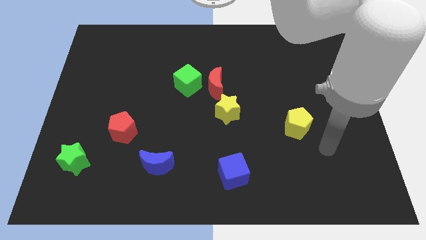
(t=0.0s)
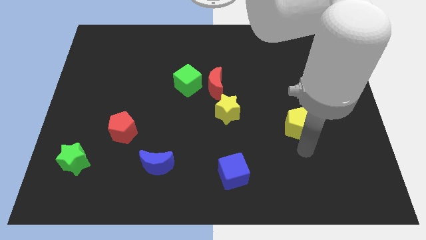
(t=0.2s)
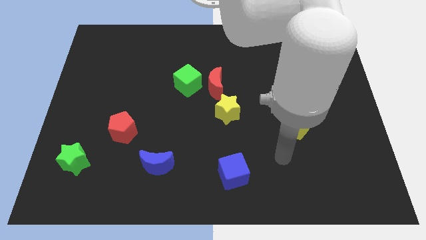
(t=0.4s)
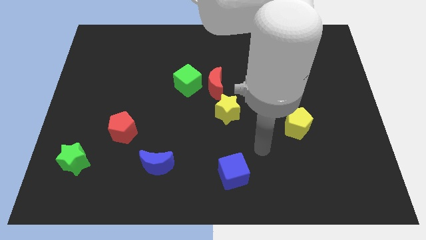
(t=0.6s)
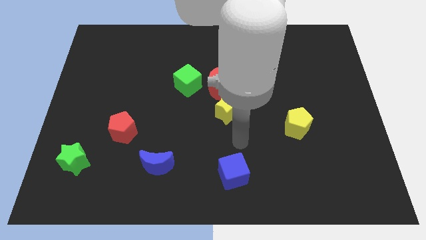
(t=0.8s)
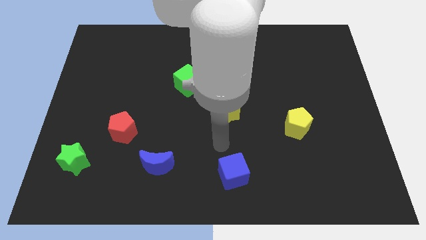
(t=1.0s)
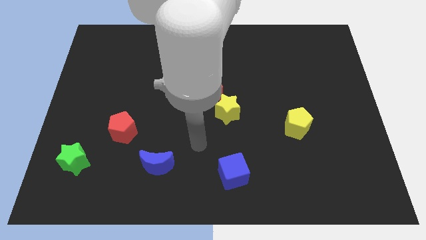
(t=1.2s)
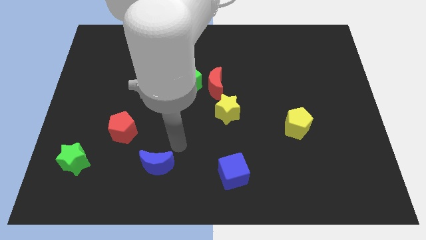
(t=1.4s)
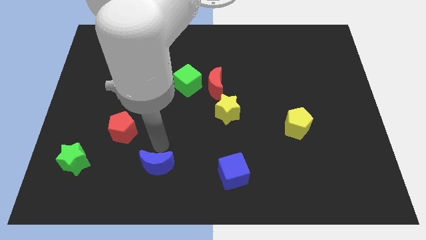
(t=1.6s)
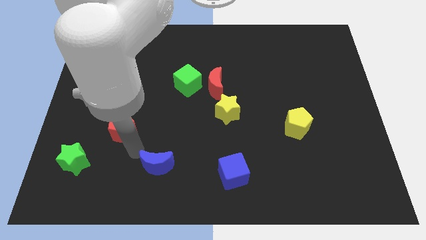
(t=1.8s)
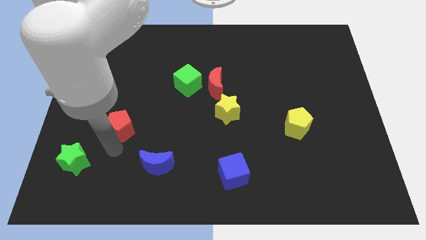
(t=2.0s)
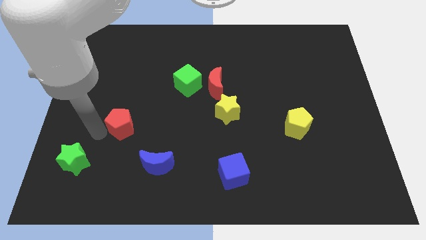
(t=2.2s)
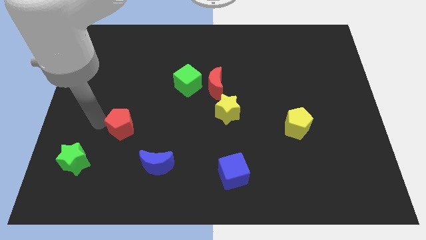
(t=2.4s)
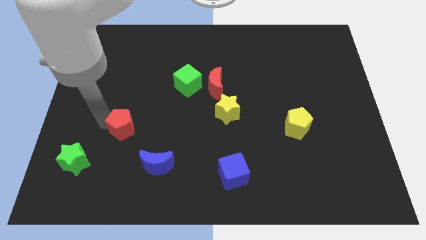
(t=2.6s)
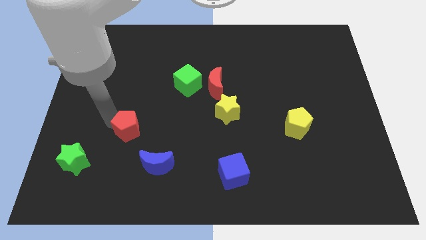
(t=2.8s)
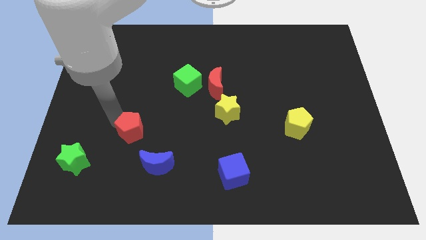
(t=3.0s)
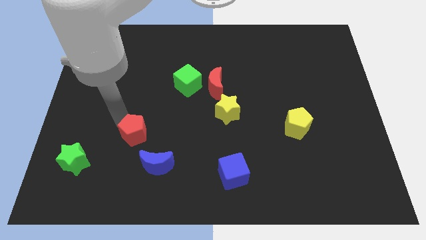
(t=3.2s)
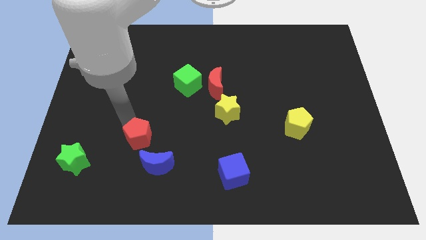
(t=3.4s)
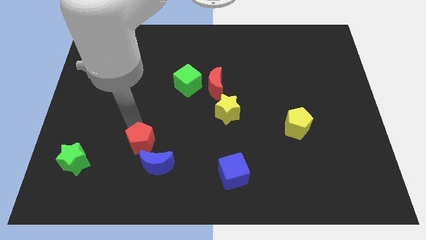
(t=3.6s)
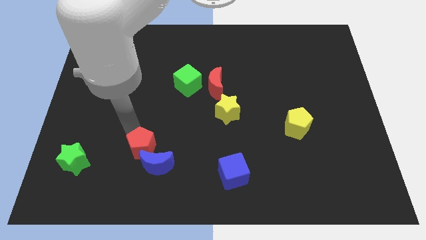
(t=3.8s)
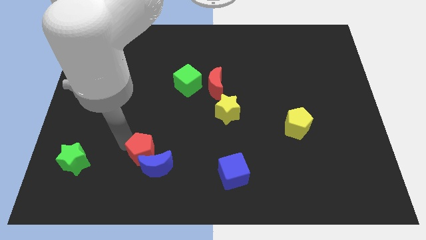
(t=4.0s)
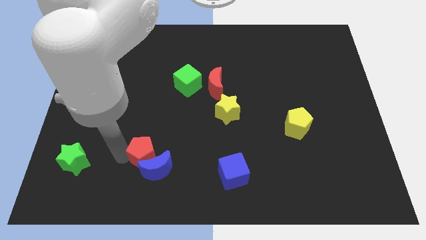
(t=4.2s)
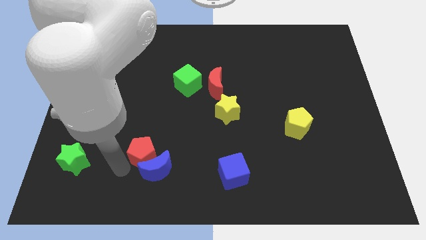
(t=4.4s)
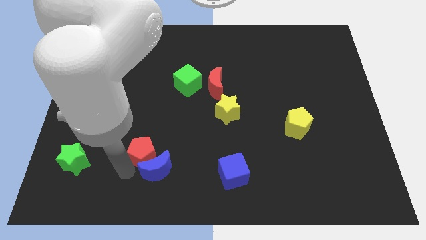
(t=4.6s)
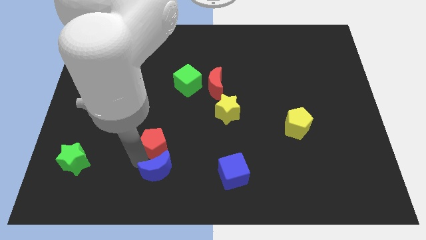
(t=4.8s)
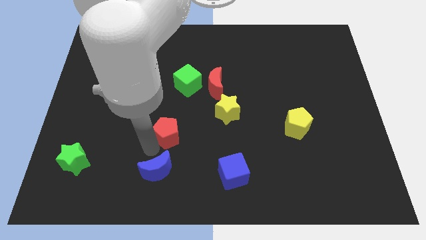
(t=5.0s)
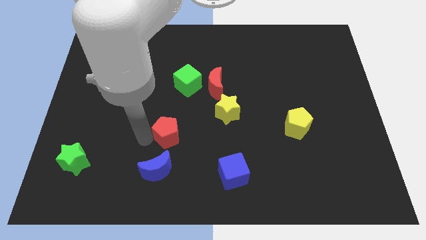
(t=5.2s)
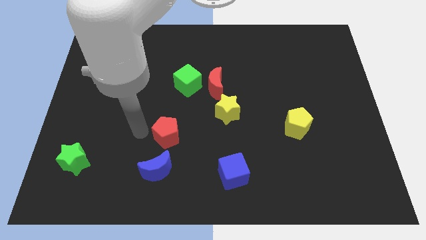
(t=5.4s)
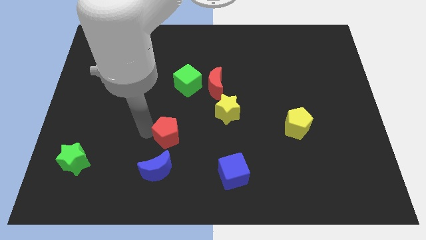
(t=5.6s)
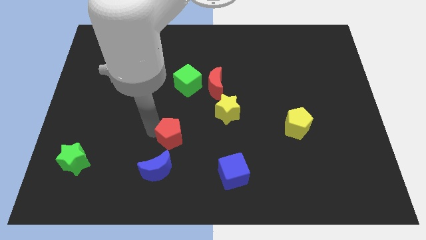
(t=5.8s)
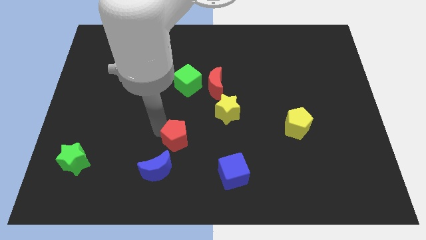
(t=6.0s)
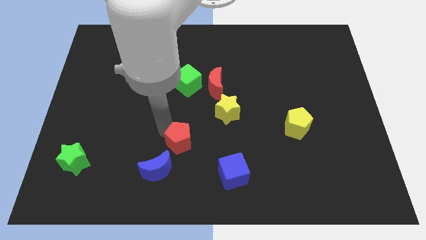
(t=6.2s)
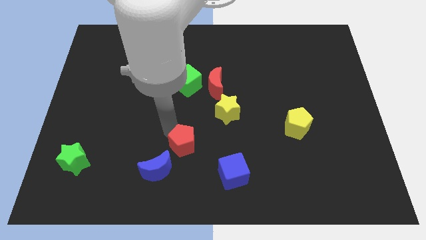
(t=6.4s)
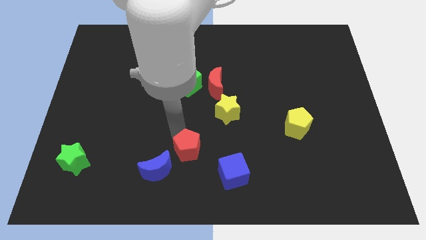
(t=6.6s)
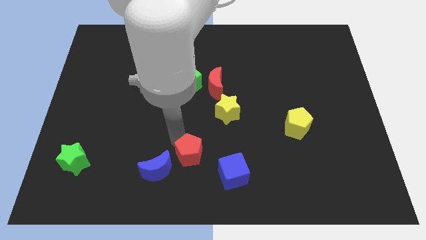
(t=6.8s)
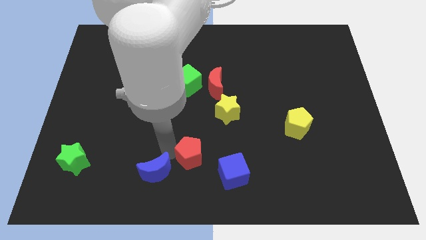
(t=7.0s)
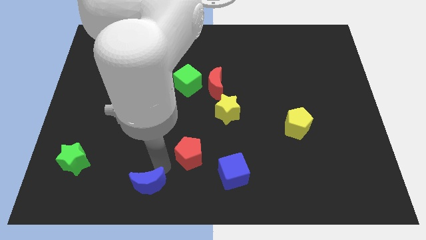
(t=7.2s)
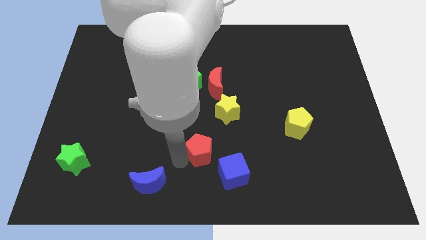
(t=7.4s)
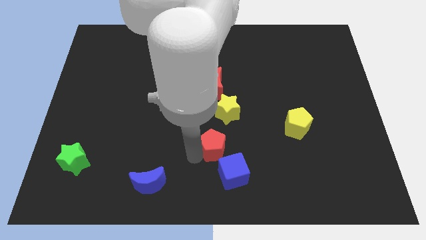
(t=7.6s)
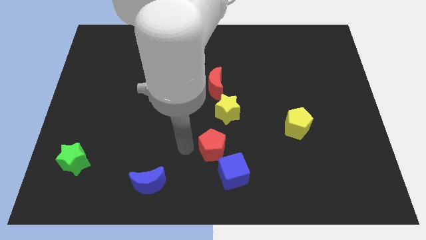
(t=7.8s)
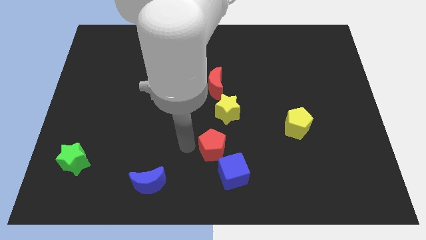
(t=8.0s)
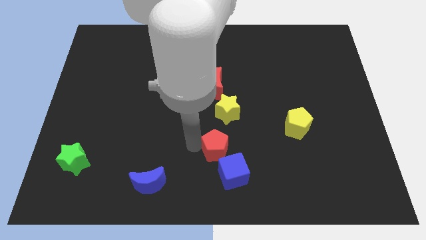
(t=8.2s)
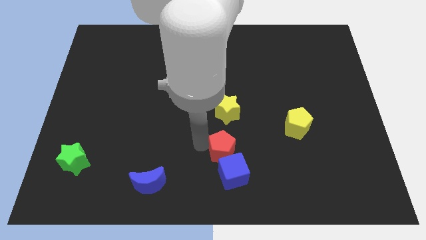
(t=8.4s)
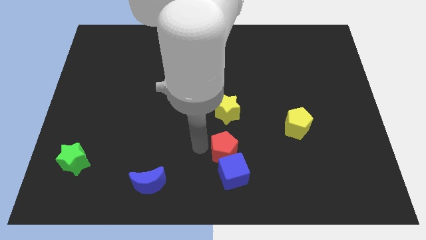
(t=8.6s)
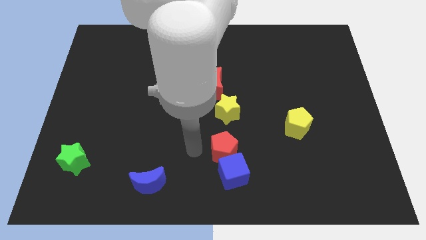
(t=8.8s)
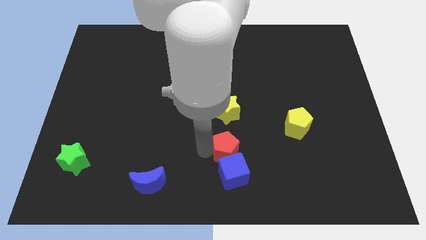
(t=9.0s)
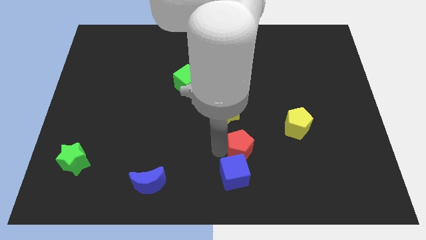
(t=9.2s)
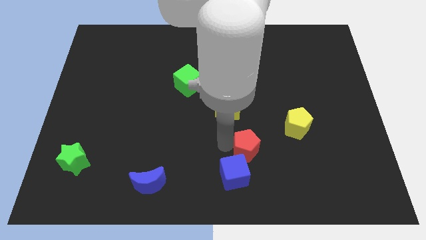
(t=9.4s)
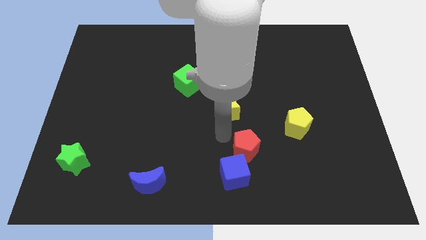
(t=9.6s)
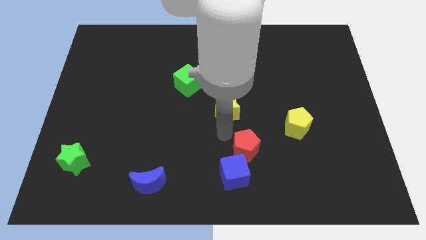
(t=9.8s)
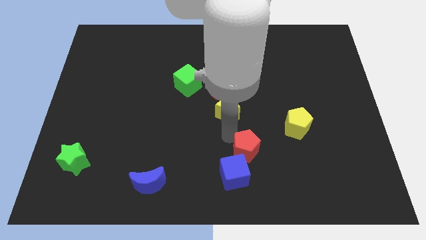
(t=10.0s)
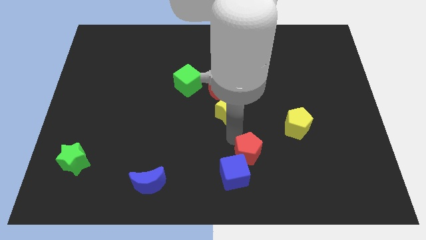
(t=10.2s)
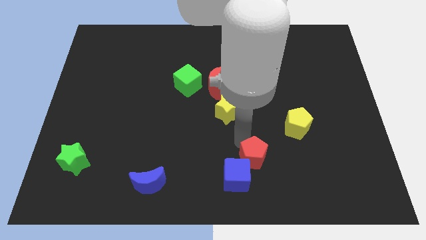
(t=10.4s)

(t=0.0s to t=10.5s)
slide the red pentagon to the right of the blue cube

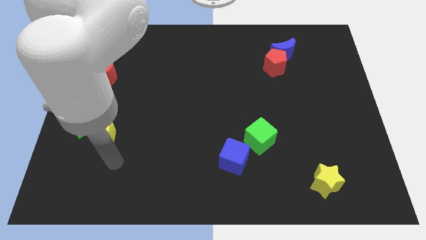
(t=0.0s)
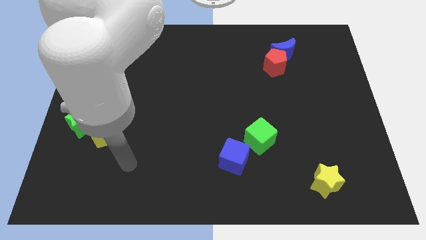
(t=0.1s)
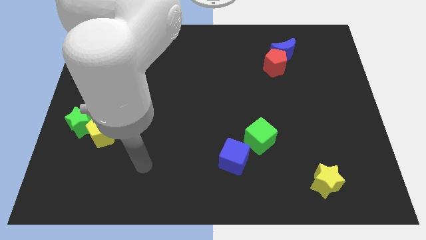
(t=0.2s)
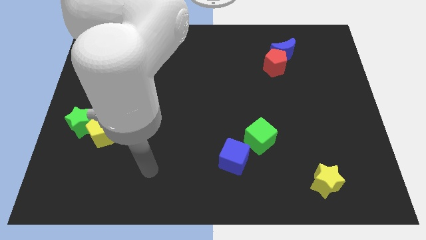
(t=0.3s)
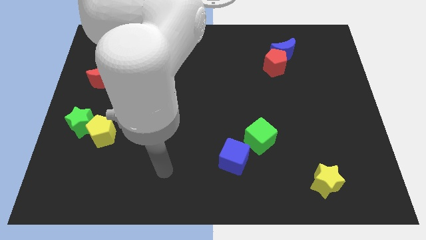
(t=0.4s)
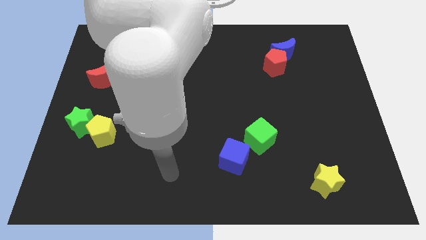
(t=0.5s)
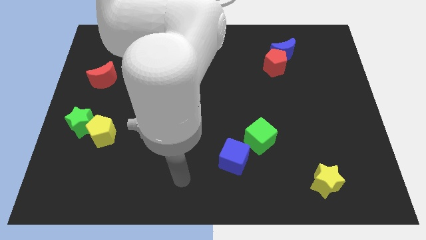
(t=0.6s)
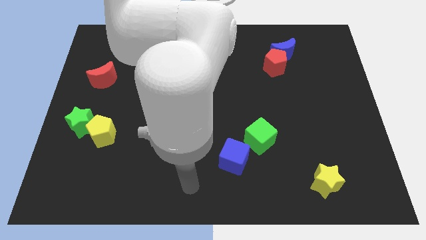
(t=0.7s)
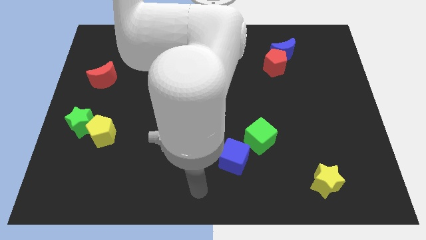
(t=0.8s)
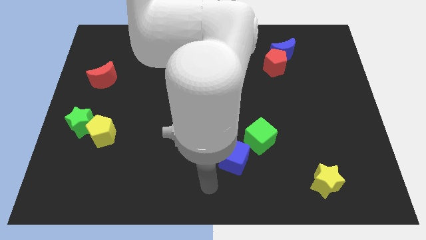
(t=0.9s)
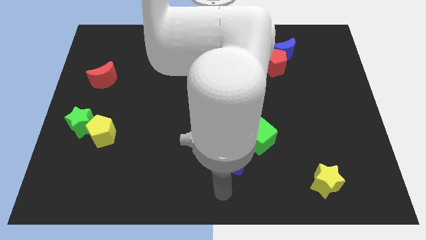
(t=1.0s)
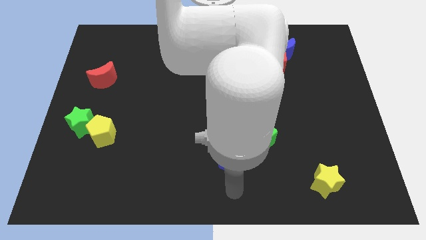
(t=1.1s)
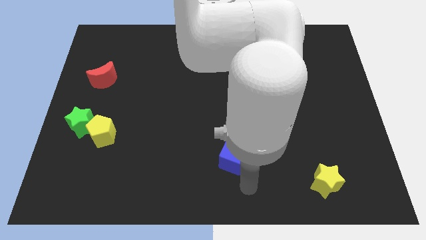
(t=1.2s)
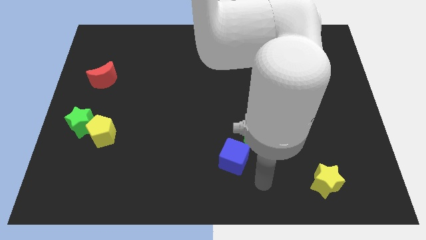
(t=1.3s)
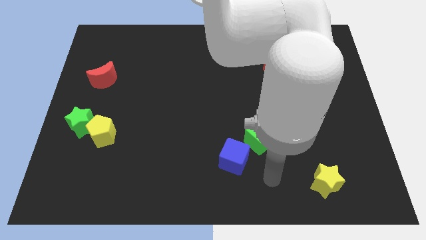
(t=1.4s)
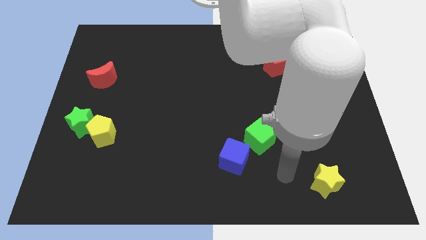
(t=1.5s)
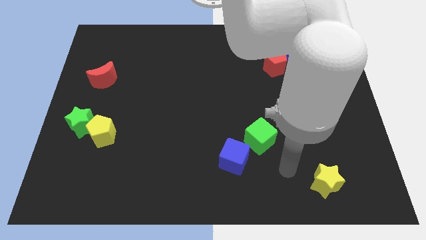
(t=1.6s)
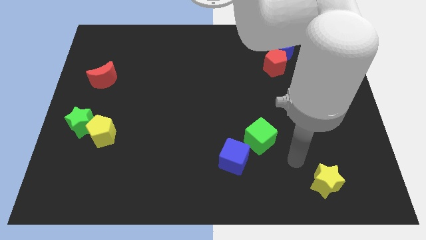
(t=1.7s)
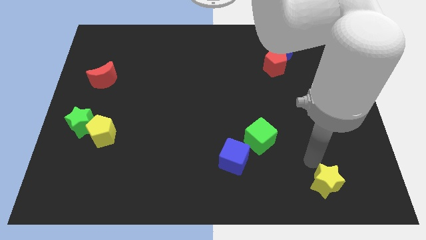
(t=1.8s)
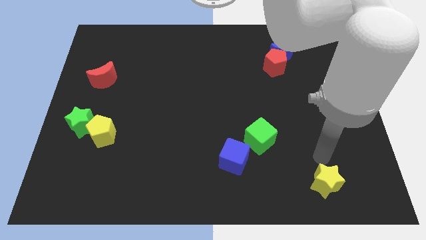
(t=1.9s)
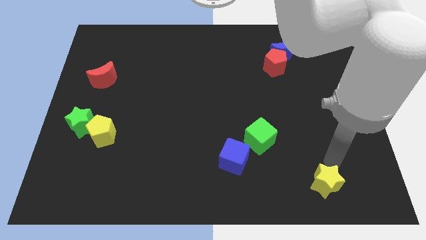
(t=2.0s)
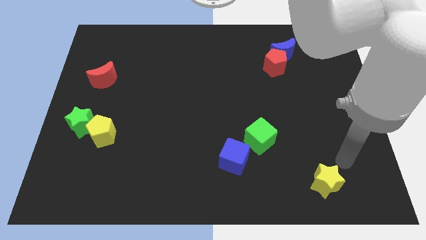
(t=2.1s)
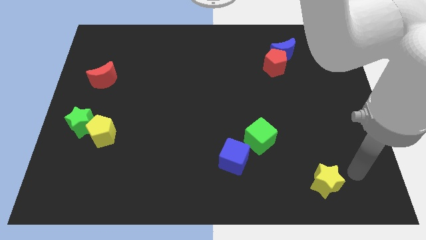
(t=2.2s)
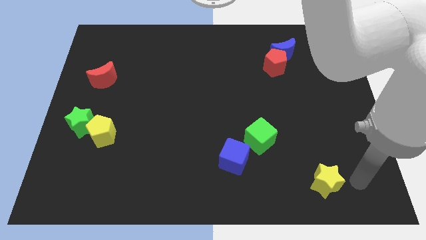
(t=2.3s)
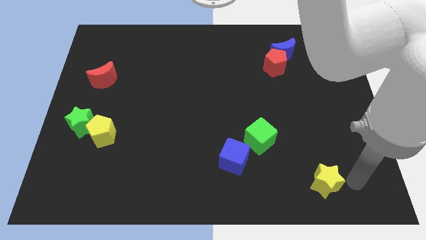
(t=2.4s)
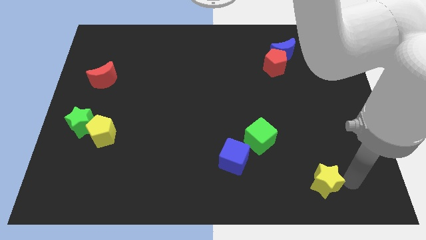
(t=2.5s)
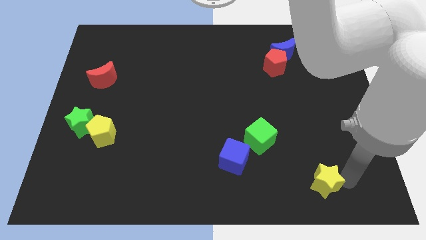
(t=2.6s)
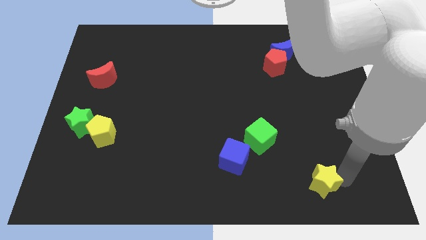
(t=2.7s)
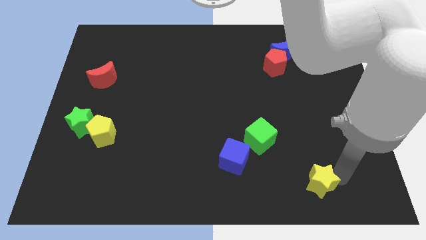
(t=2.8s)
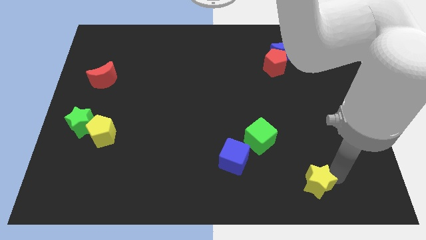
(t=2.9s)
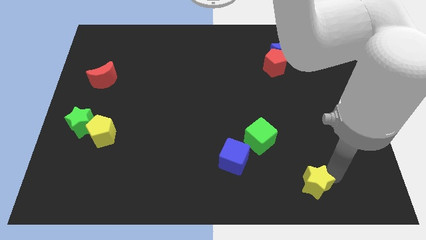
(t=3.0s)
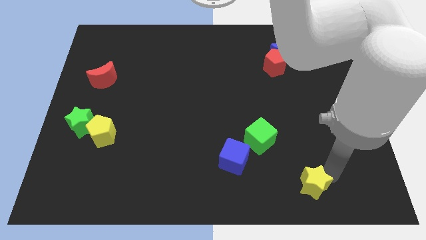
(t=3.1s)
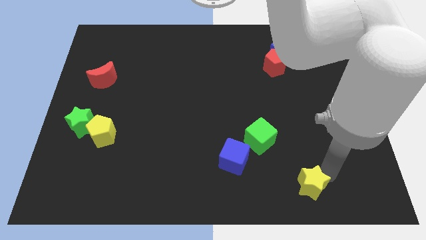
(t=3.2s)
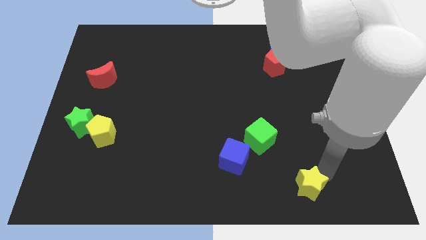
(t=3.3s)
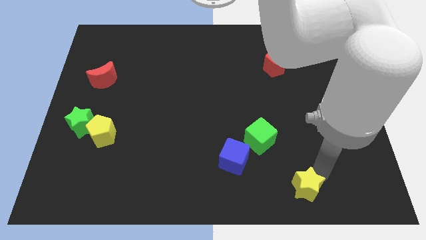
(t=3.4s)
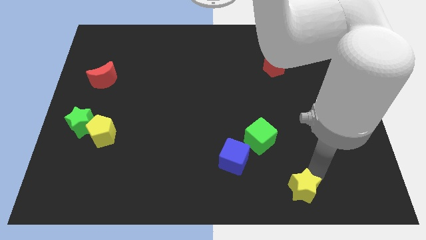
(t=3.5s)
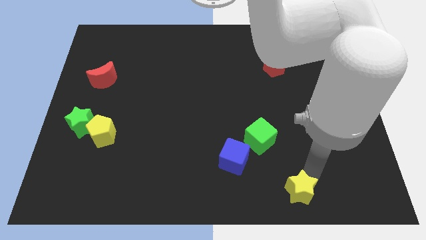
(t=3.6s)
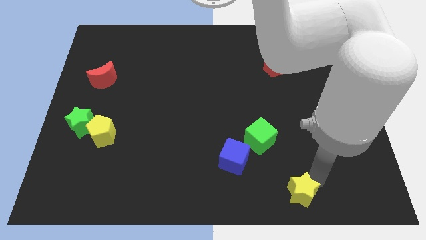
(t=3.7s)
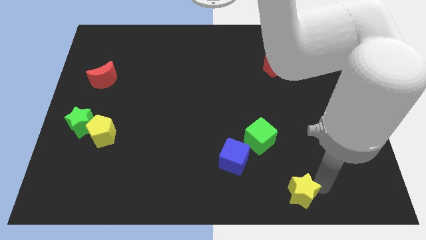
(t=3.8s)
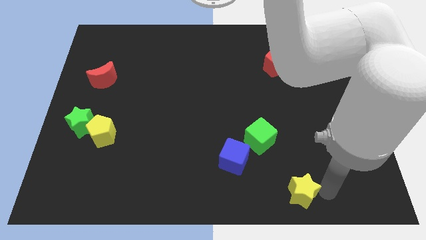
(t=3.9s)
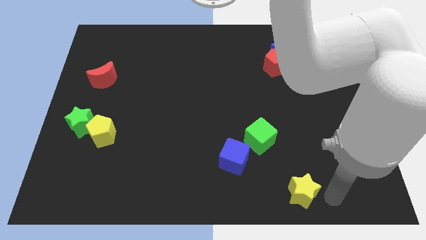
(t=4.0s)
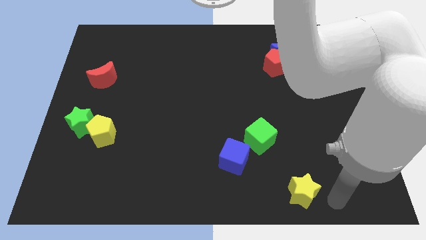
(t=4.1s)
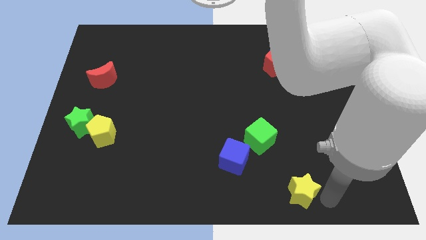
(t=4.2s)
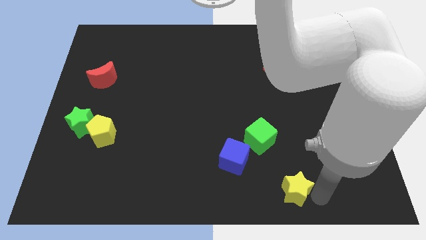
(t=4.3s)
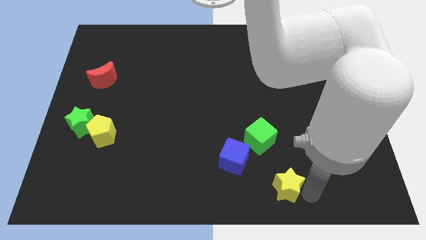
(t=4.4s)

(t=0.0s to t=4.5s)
put the yellow star to the bottom of the green cube
